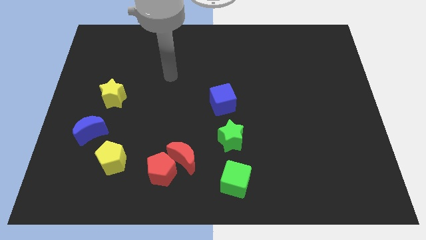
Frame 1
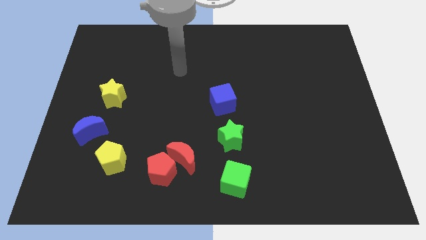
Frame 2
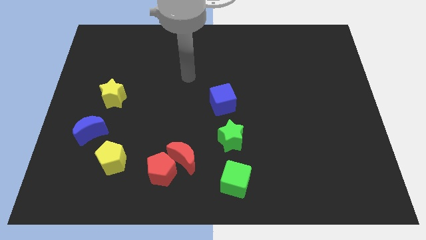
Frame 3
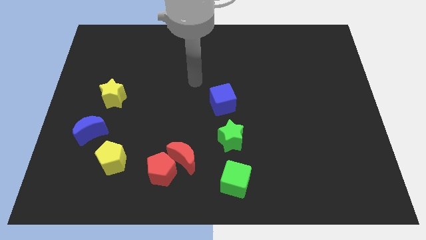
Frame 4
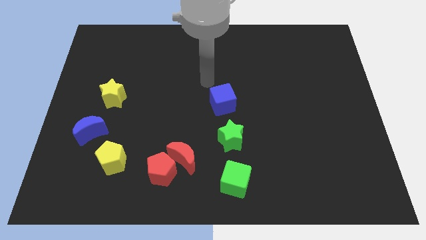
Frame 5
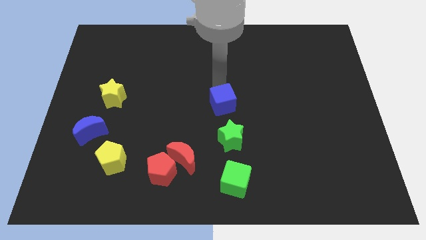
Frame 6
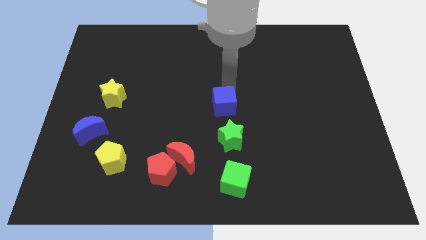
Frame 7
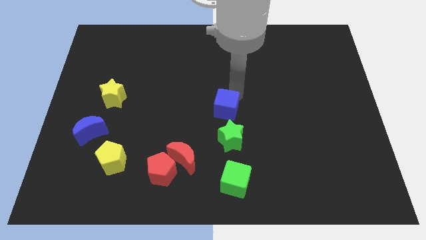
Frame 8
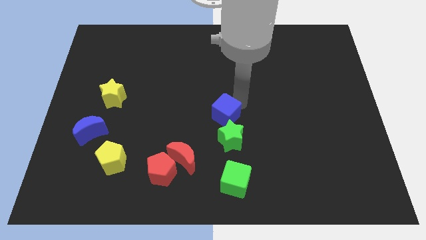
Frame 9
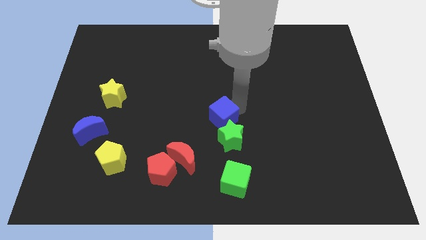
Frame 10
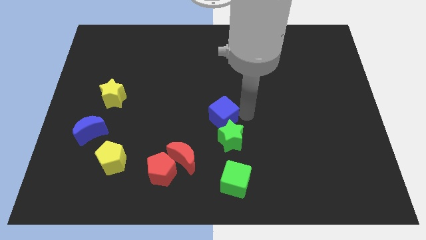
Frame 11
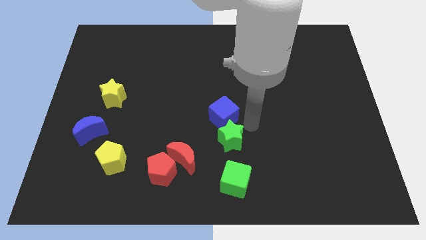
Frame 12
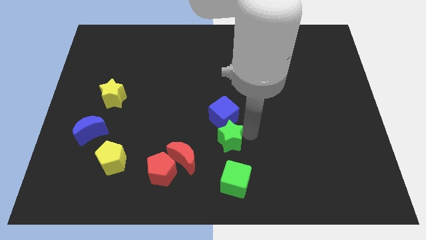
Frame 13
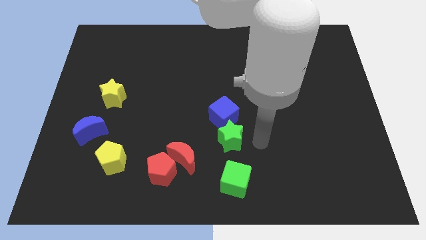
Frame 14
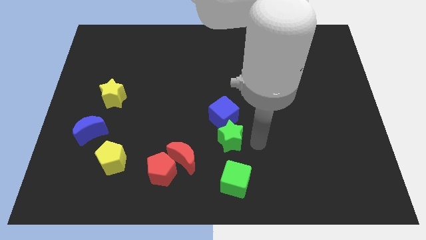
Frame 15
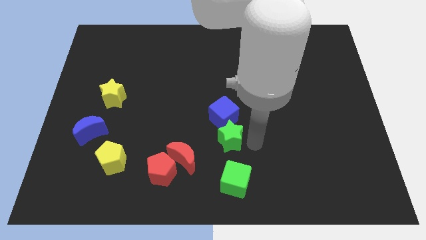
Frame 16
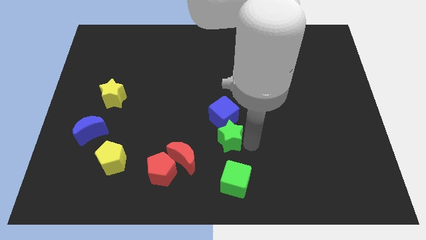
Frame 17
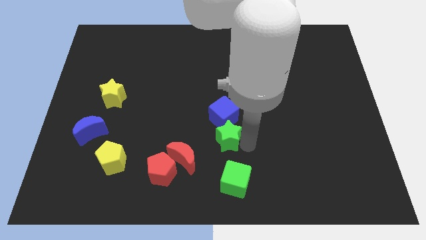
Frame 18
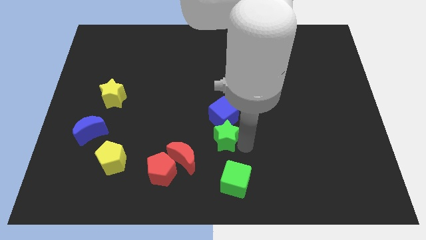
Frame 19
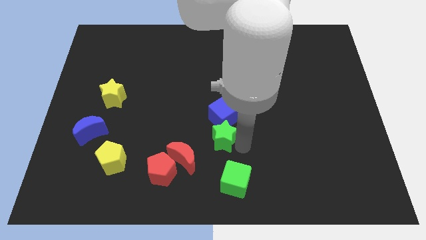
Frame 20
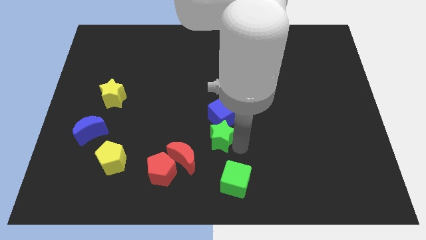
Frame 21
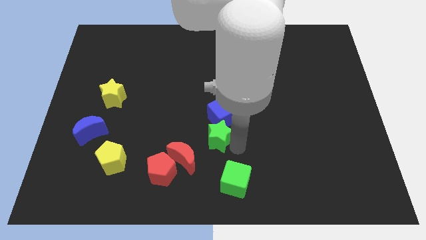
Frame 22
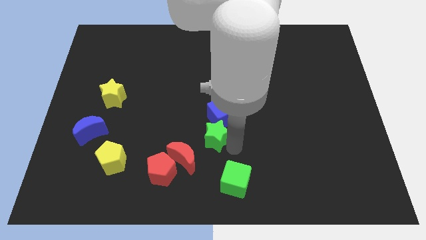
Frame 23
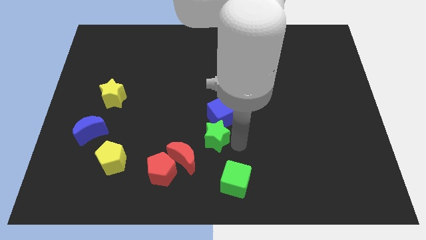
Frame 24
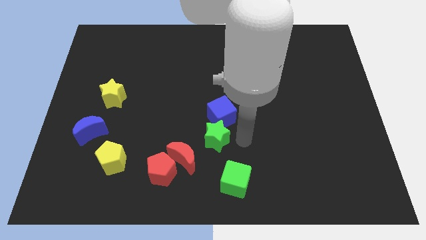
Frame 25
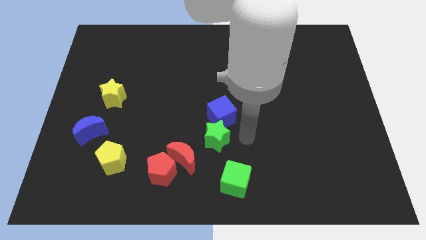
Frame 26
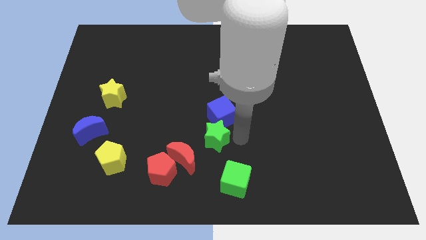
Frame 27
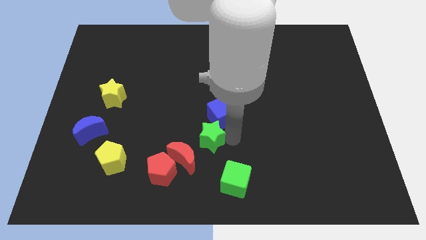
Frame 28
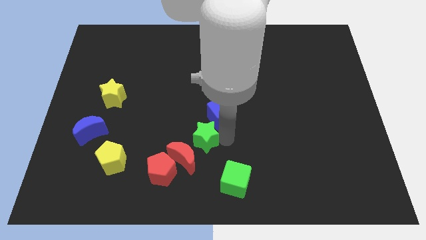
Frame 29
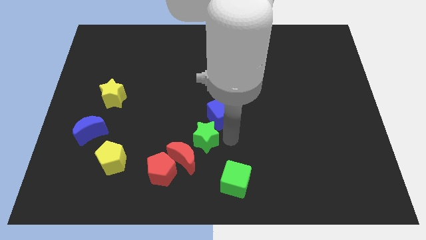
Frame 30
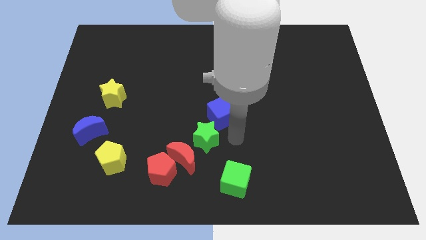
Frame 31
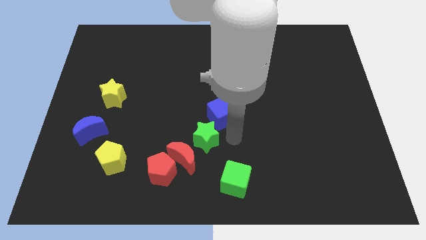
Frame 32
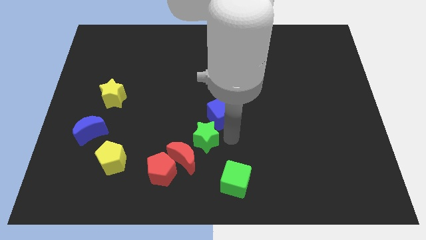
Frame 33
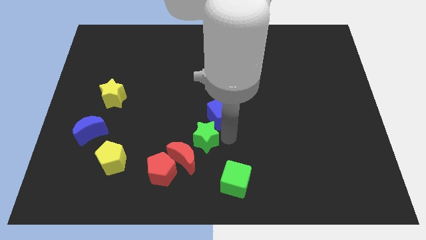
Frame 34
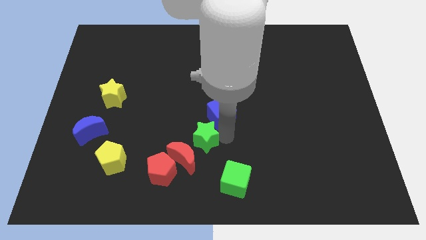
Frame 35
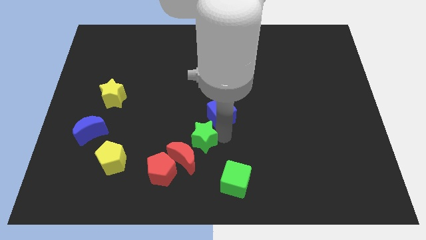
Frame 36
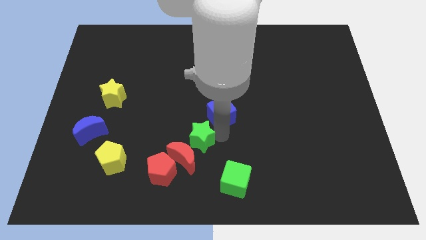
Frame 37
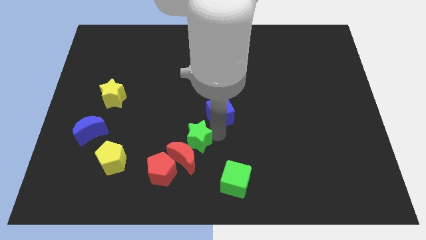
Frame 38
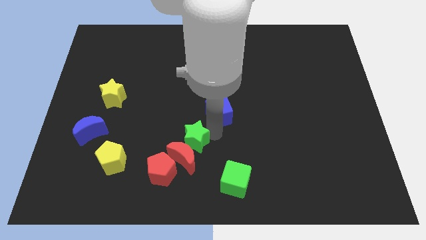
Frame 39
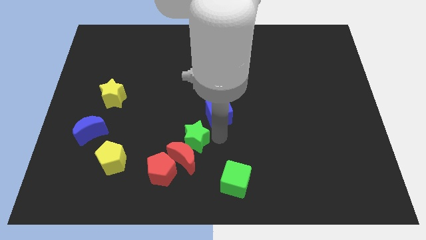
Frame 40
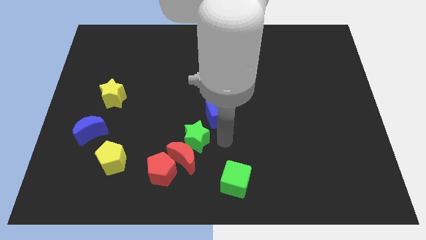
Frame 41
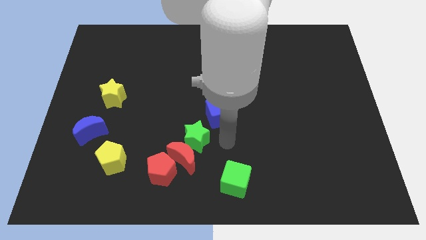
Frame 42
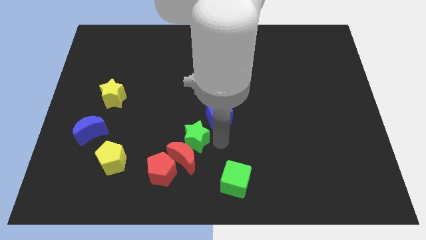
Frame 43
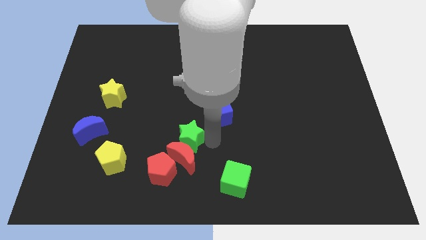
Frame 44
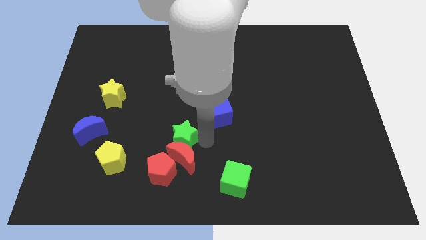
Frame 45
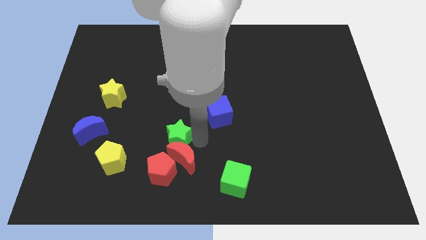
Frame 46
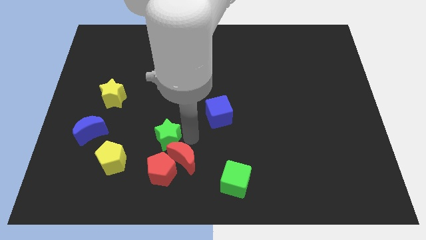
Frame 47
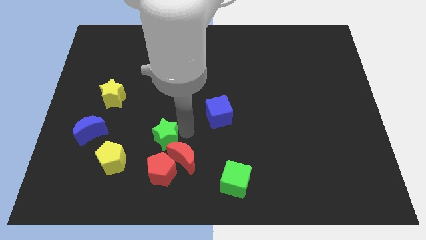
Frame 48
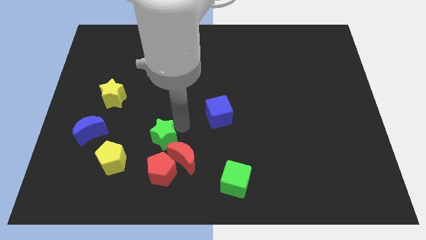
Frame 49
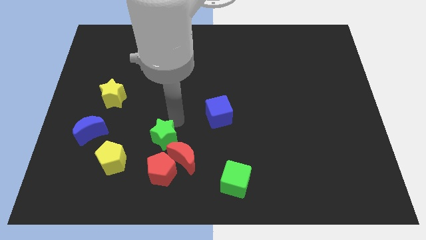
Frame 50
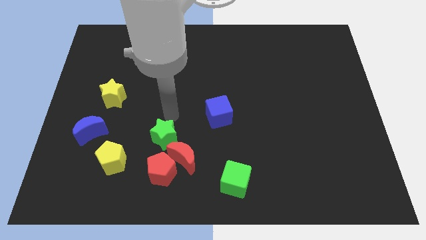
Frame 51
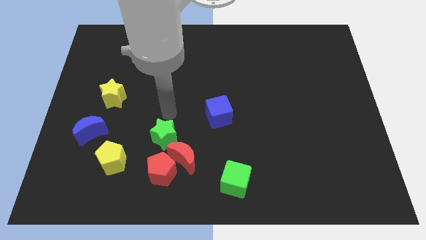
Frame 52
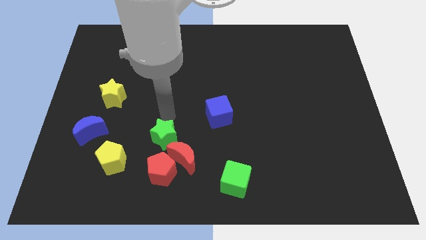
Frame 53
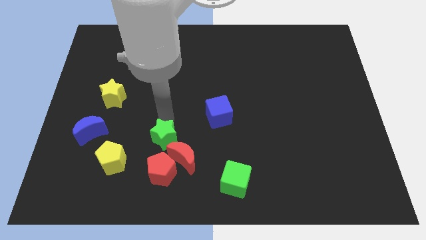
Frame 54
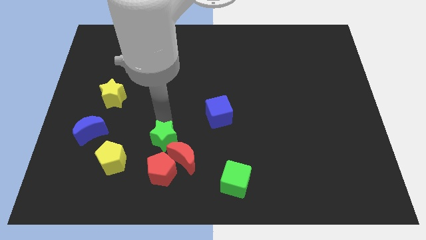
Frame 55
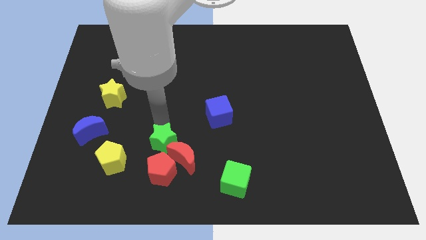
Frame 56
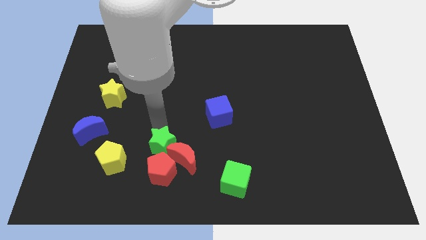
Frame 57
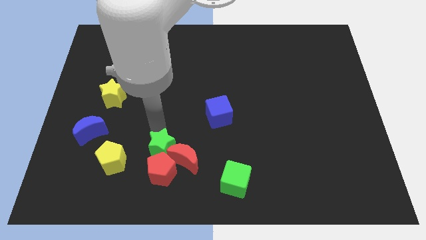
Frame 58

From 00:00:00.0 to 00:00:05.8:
put the green star close to the red pentagon

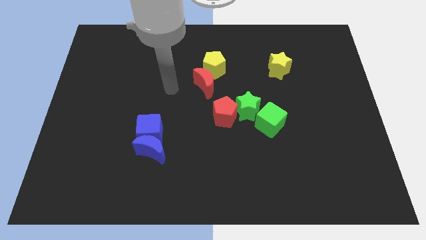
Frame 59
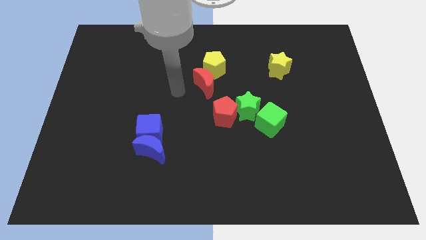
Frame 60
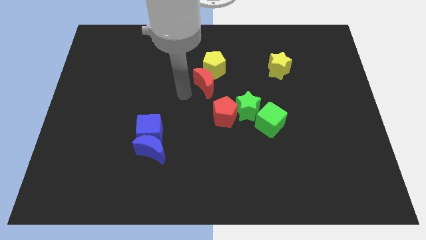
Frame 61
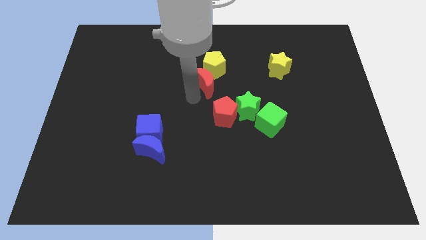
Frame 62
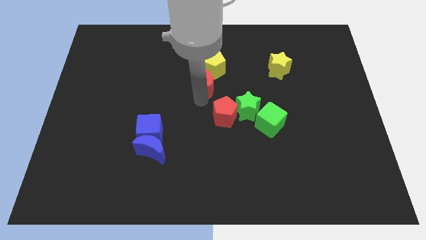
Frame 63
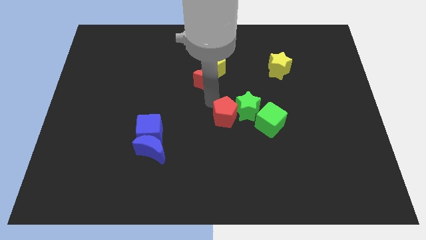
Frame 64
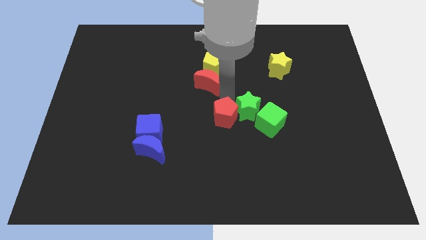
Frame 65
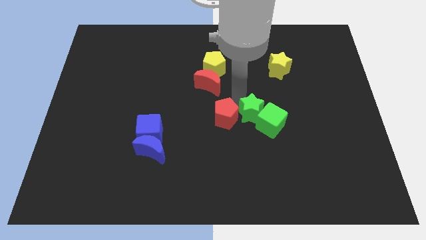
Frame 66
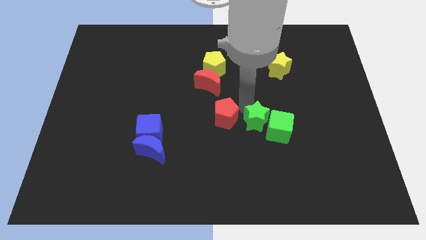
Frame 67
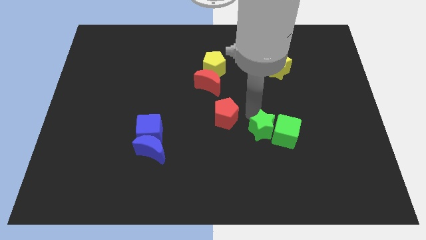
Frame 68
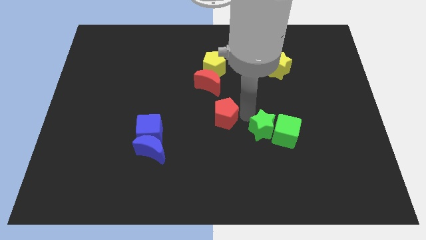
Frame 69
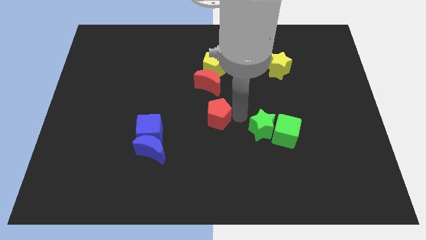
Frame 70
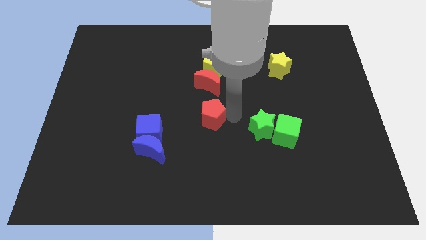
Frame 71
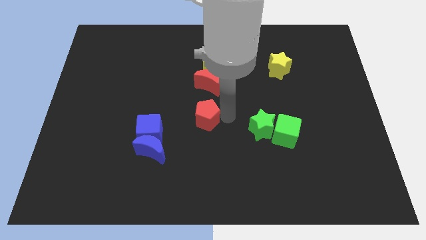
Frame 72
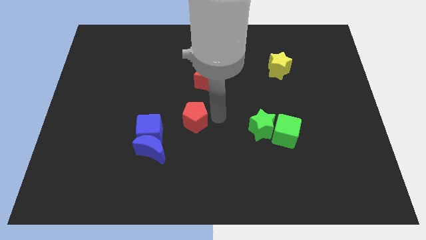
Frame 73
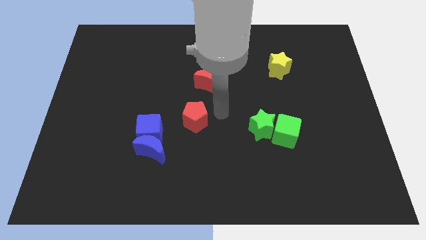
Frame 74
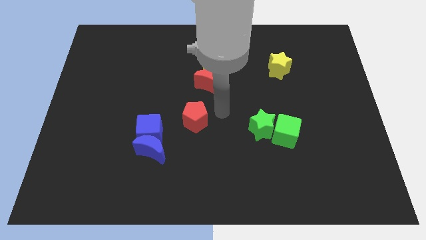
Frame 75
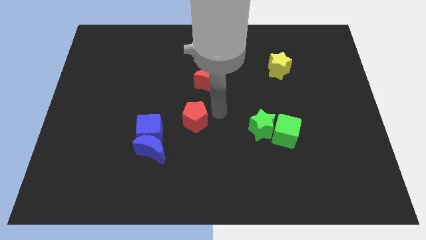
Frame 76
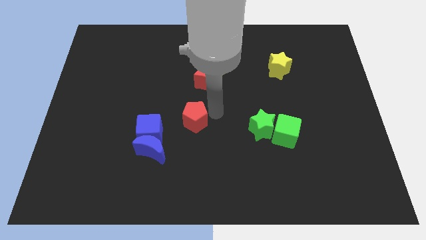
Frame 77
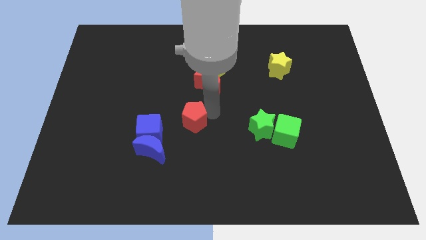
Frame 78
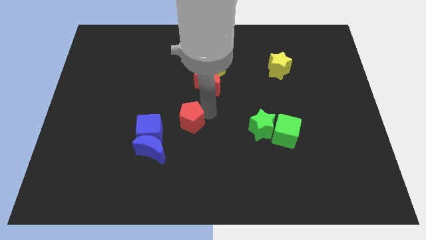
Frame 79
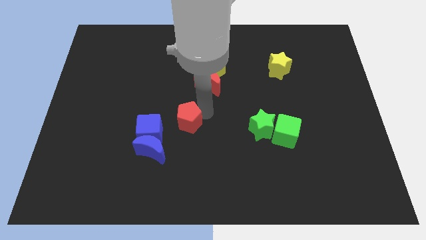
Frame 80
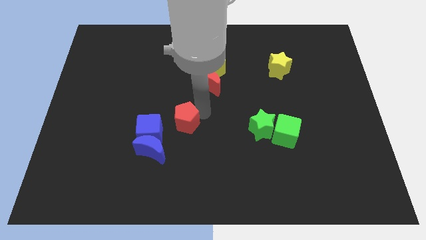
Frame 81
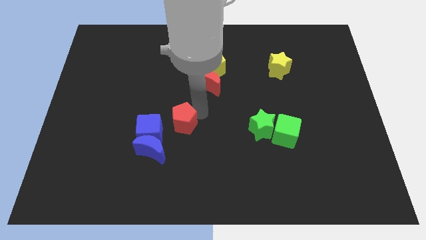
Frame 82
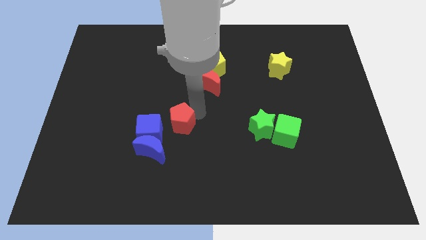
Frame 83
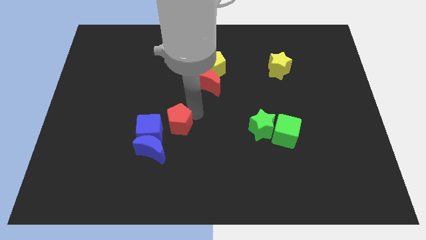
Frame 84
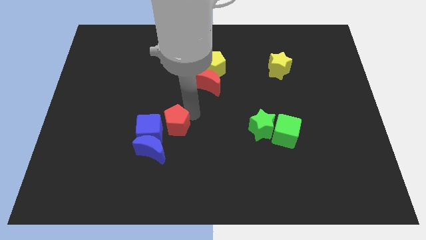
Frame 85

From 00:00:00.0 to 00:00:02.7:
push the red pentagon to the blue cube
